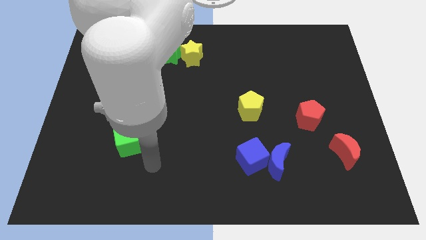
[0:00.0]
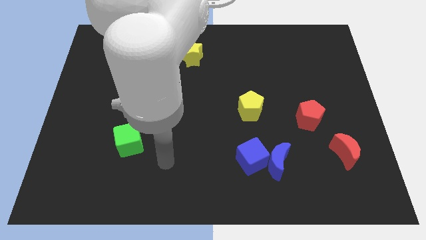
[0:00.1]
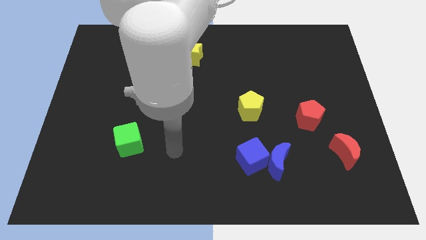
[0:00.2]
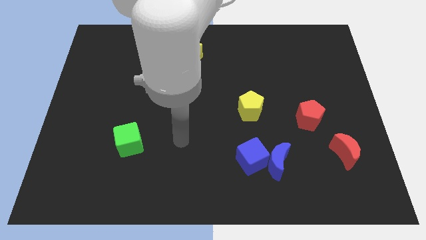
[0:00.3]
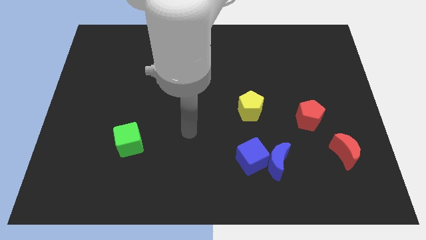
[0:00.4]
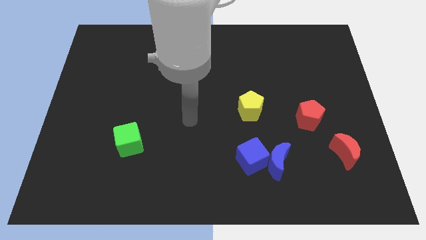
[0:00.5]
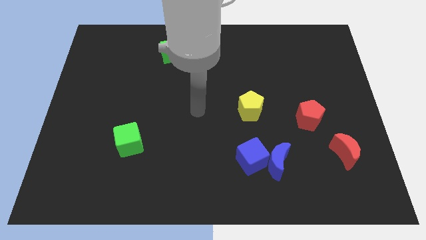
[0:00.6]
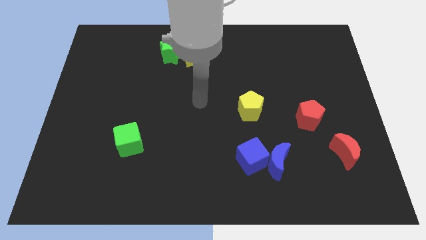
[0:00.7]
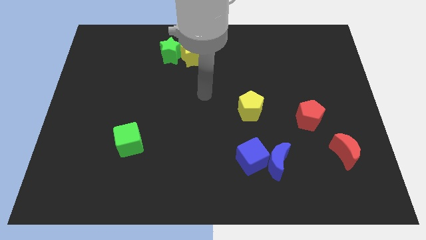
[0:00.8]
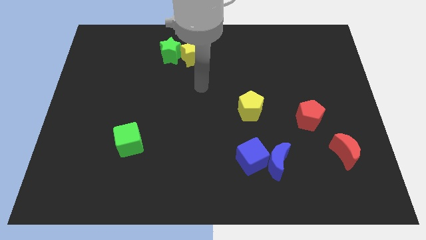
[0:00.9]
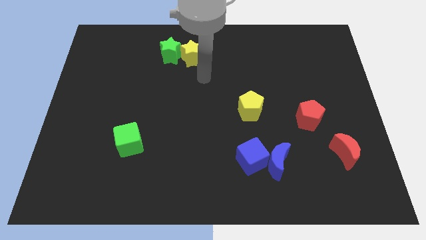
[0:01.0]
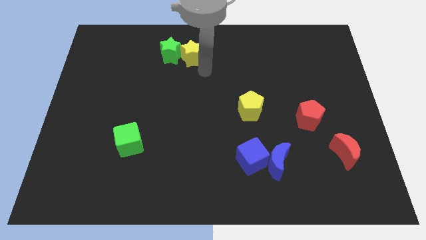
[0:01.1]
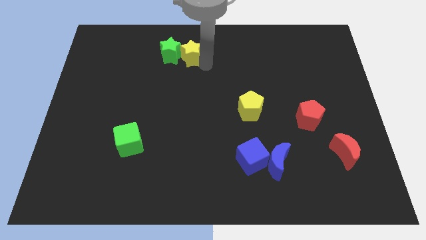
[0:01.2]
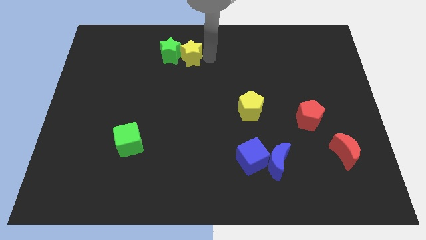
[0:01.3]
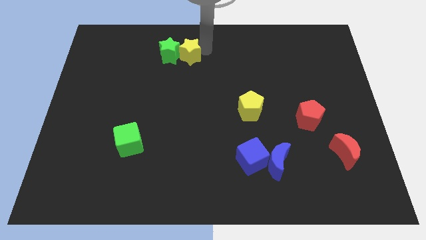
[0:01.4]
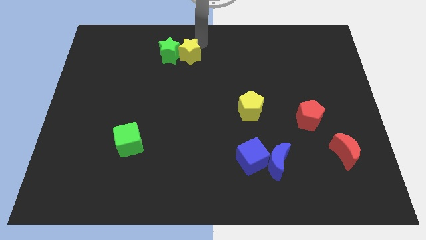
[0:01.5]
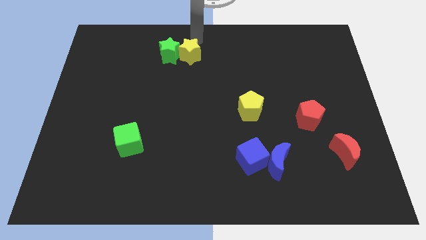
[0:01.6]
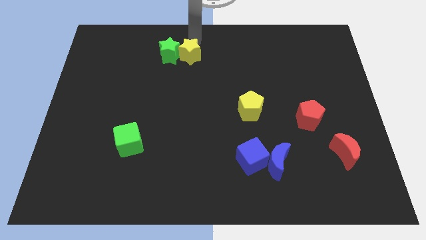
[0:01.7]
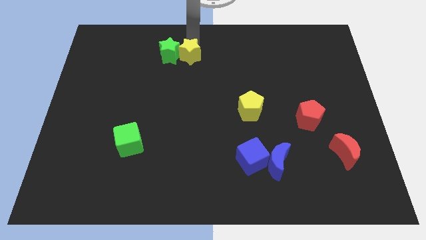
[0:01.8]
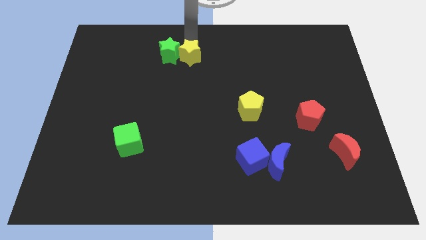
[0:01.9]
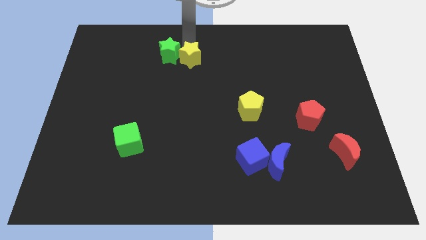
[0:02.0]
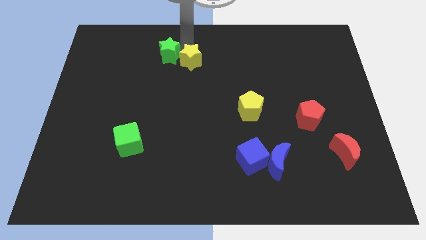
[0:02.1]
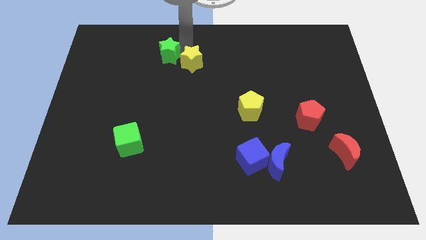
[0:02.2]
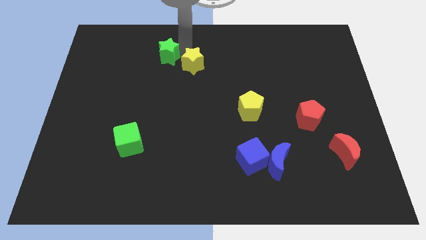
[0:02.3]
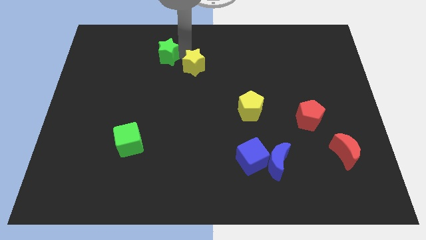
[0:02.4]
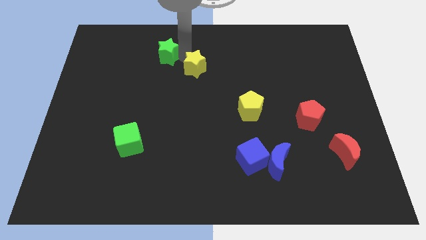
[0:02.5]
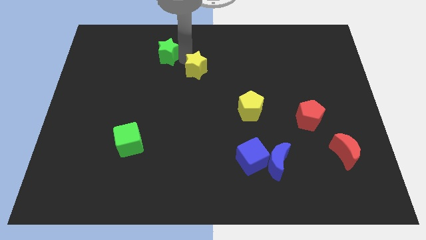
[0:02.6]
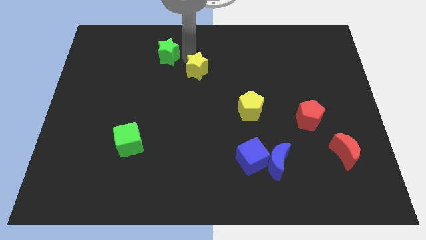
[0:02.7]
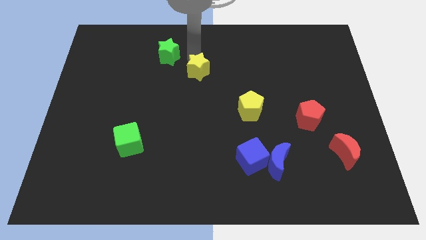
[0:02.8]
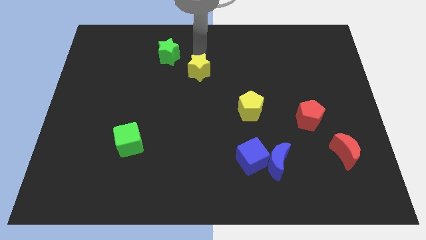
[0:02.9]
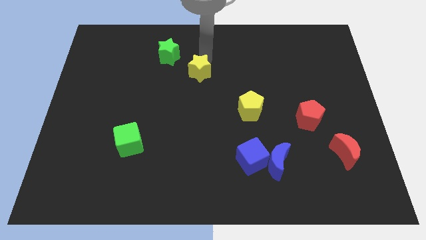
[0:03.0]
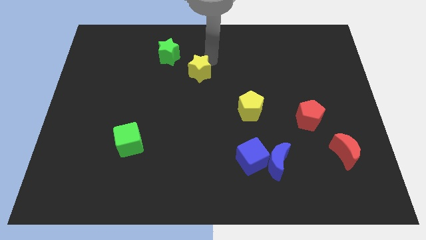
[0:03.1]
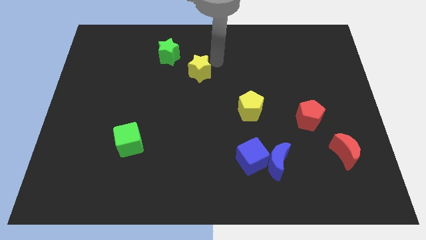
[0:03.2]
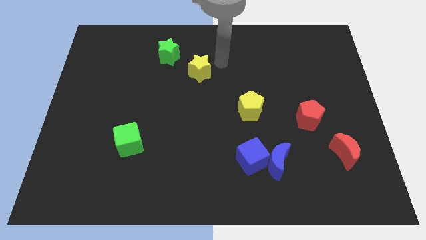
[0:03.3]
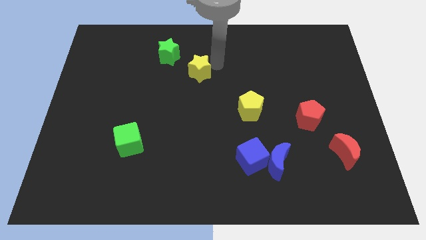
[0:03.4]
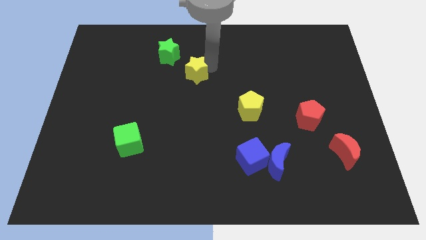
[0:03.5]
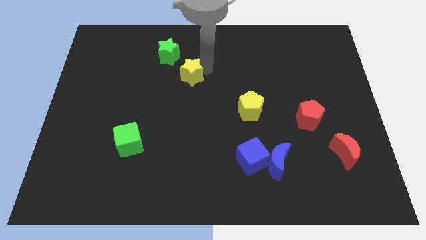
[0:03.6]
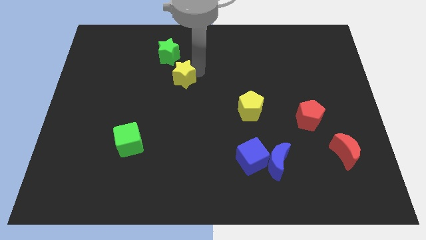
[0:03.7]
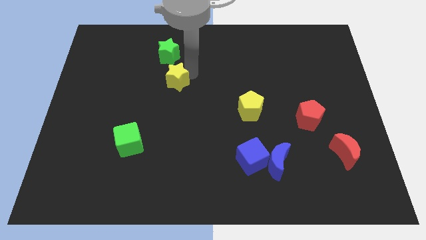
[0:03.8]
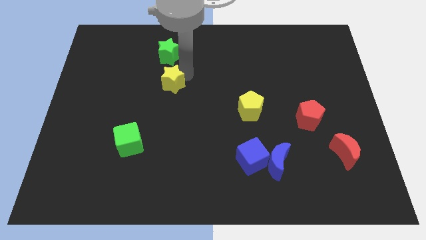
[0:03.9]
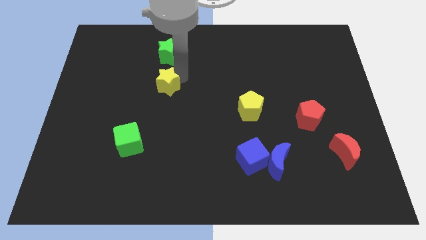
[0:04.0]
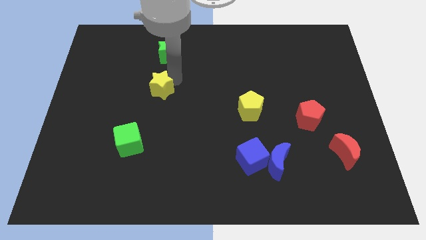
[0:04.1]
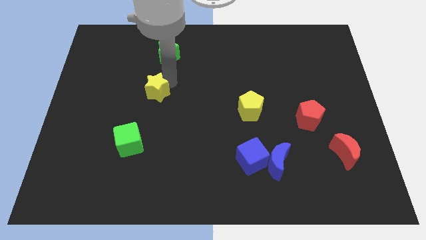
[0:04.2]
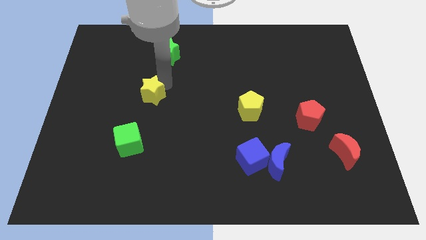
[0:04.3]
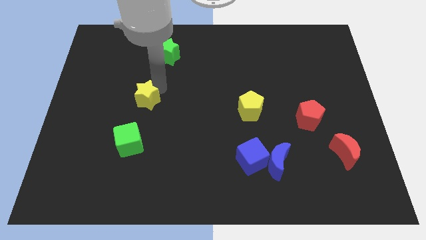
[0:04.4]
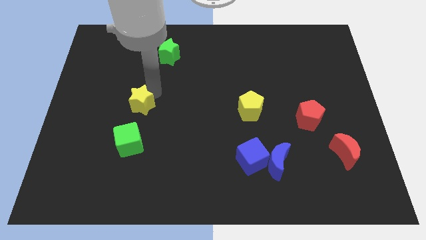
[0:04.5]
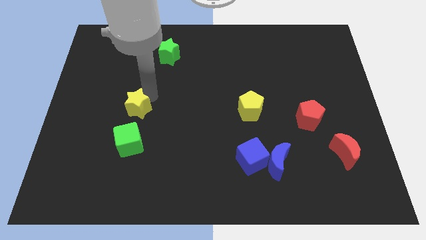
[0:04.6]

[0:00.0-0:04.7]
slide the yellow star diagonally down and left

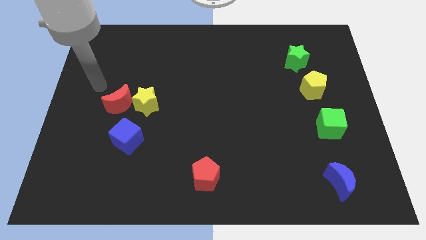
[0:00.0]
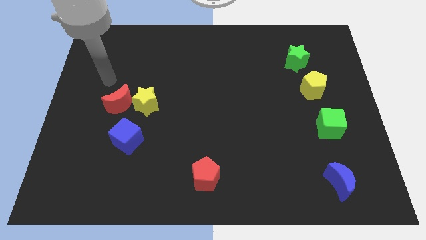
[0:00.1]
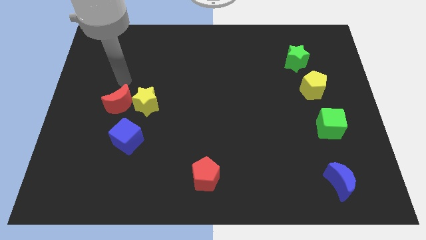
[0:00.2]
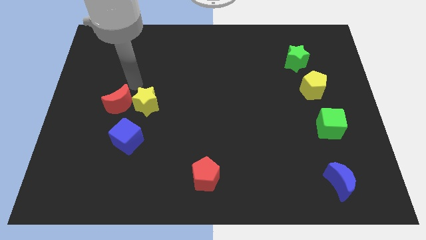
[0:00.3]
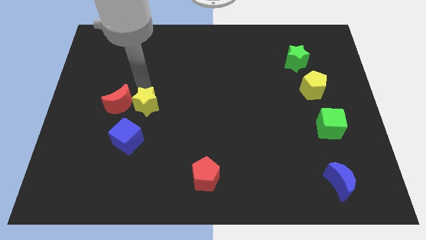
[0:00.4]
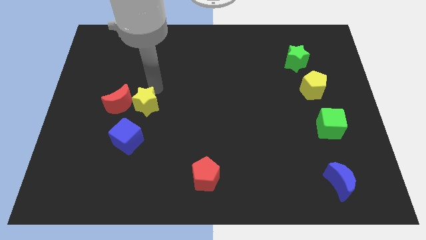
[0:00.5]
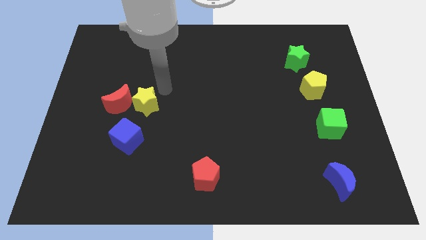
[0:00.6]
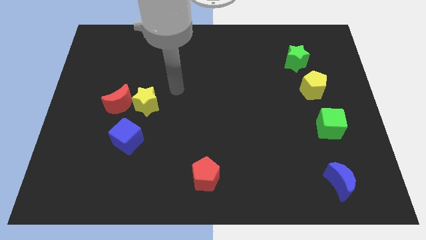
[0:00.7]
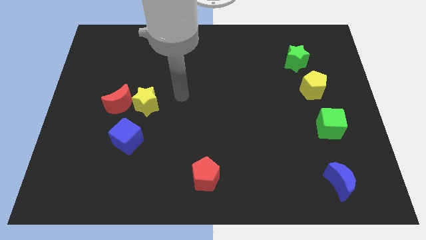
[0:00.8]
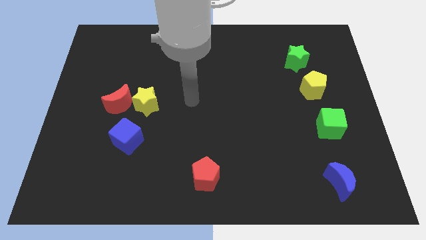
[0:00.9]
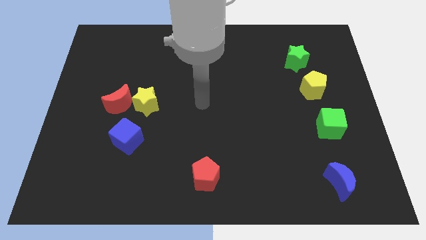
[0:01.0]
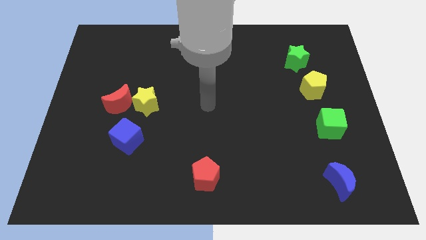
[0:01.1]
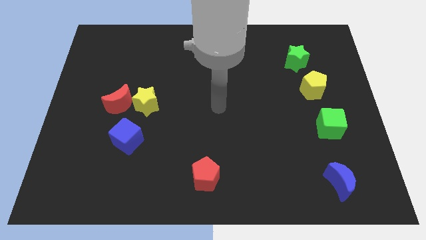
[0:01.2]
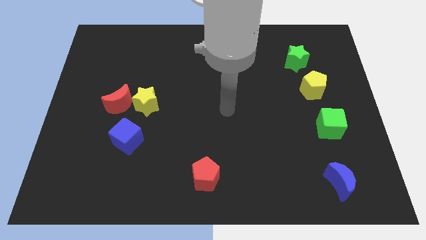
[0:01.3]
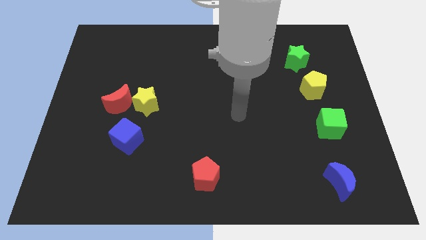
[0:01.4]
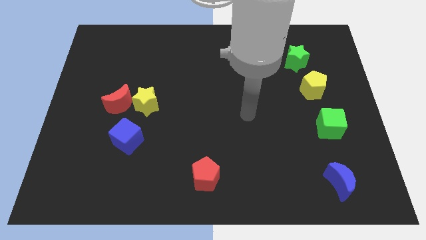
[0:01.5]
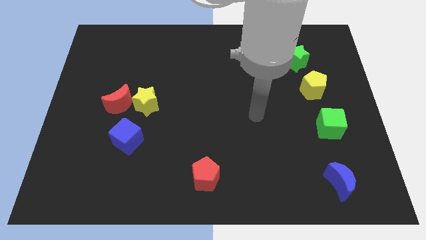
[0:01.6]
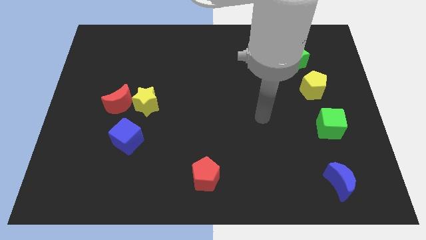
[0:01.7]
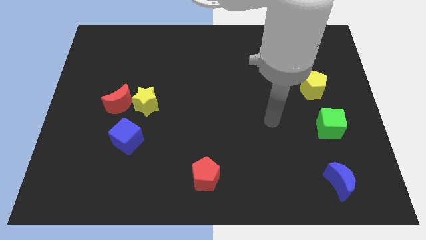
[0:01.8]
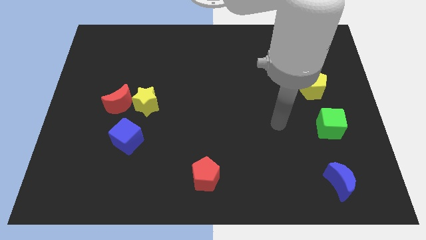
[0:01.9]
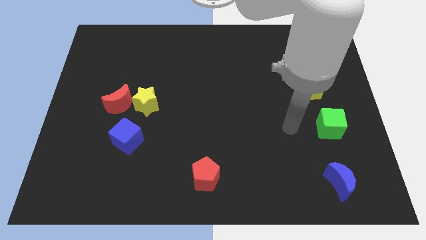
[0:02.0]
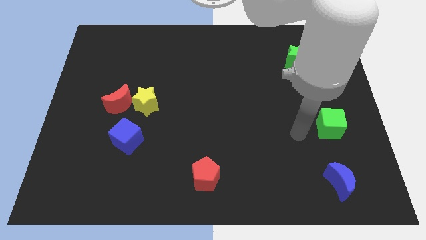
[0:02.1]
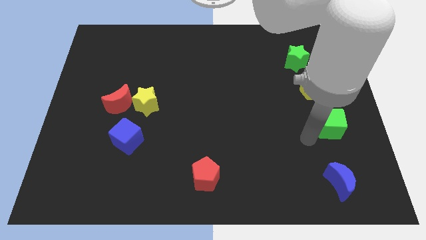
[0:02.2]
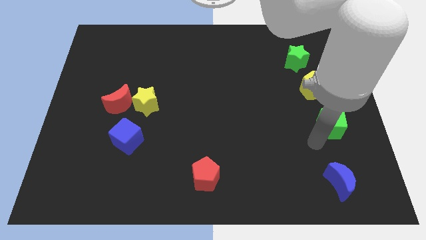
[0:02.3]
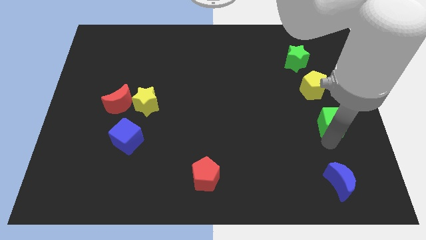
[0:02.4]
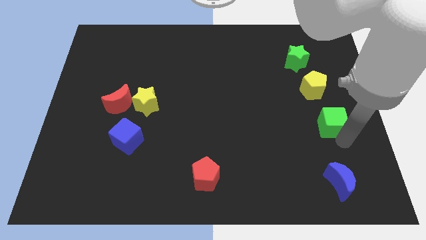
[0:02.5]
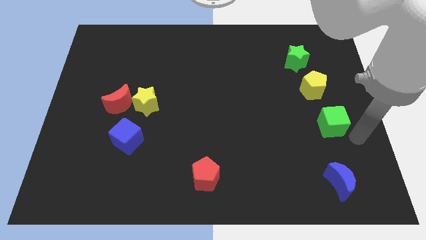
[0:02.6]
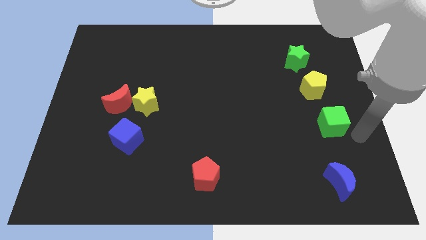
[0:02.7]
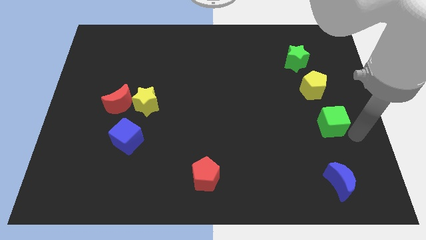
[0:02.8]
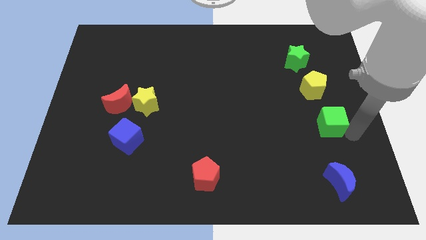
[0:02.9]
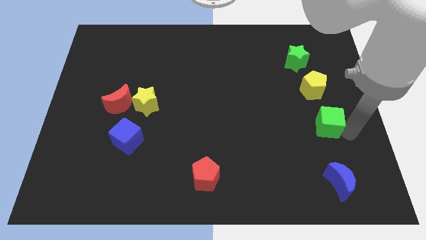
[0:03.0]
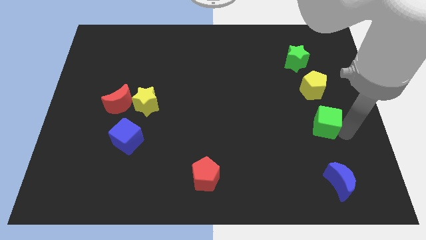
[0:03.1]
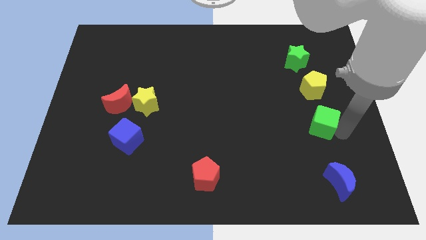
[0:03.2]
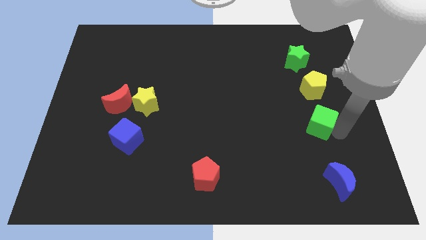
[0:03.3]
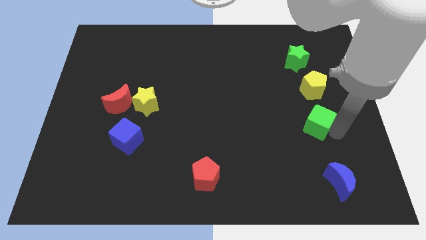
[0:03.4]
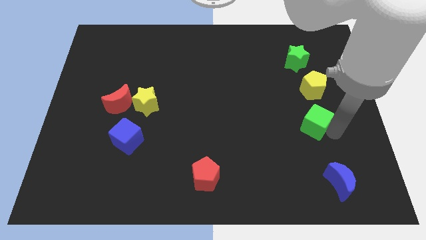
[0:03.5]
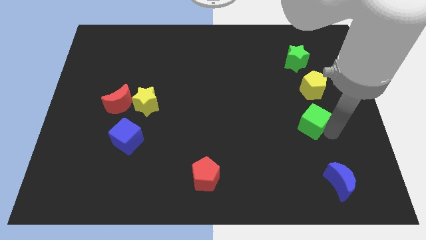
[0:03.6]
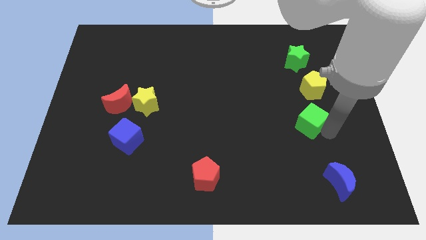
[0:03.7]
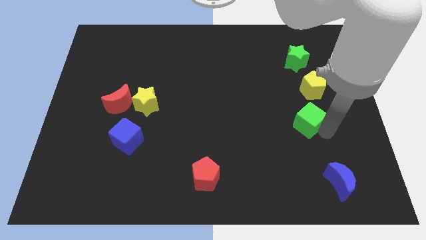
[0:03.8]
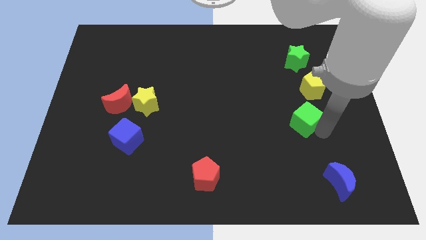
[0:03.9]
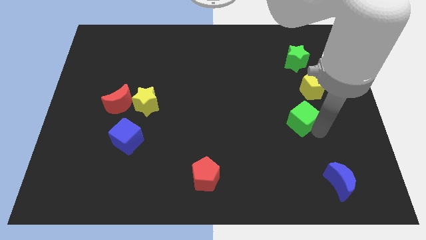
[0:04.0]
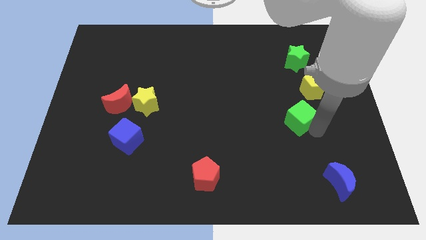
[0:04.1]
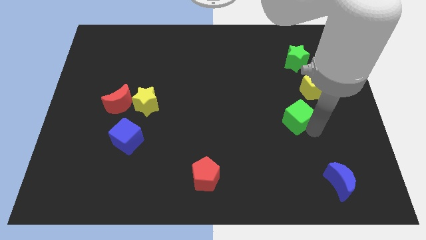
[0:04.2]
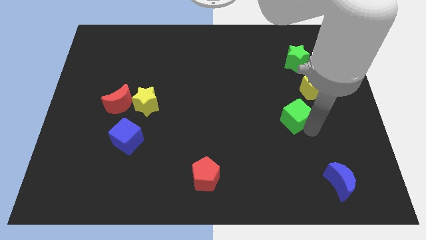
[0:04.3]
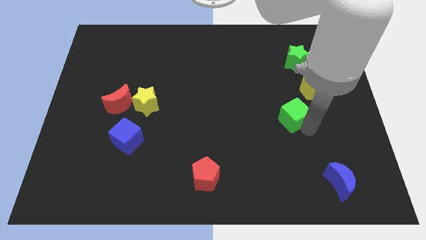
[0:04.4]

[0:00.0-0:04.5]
push the green cube diagonally up and left a little
